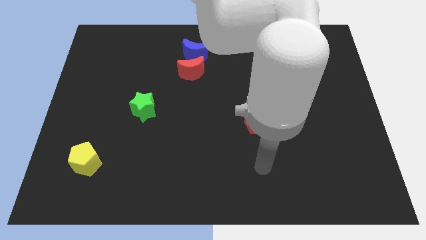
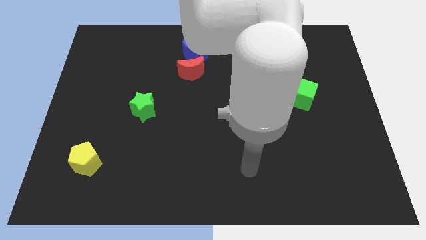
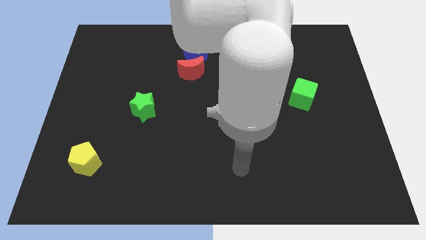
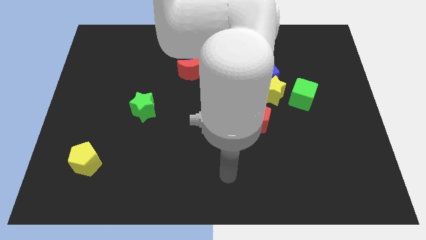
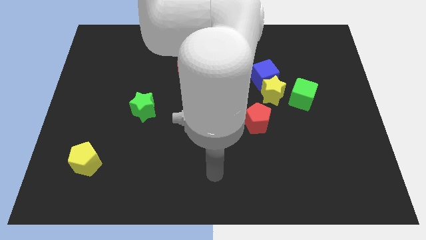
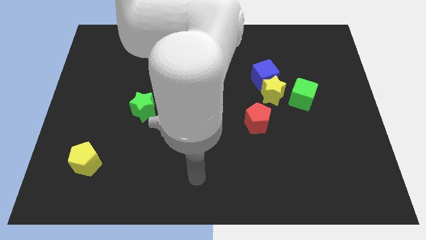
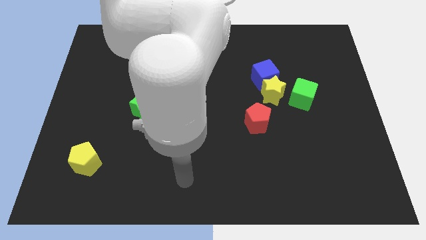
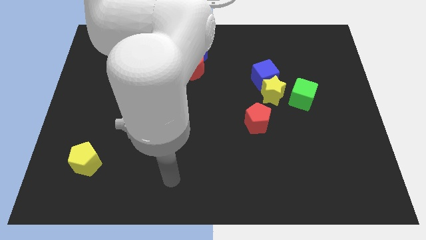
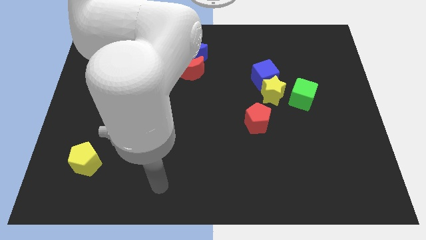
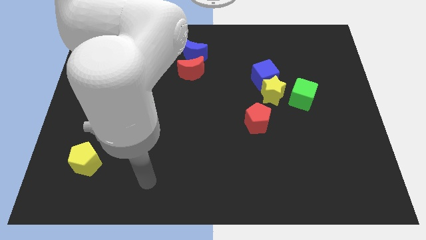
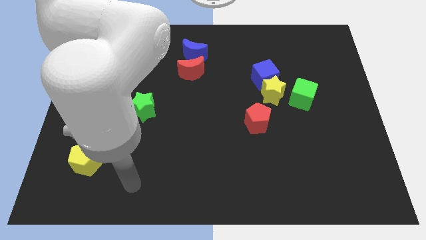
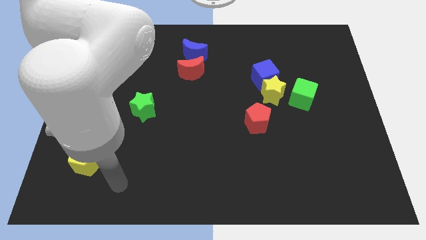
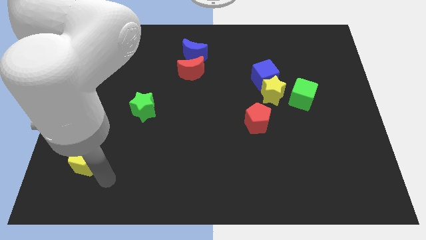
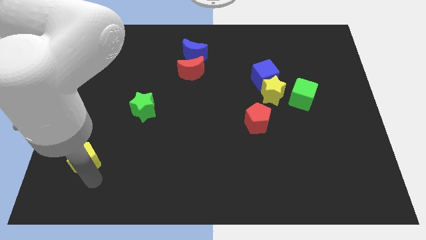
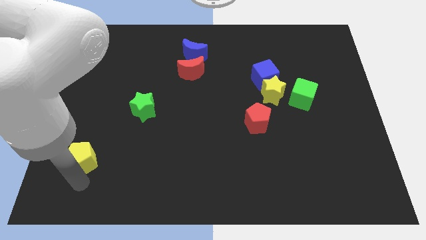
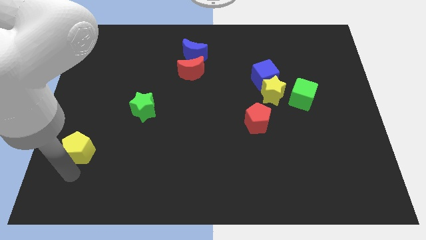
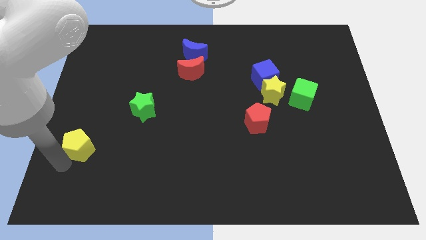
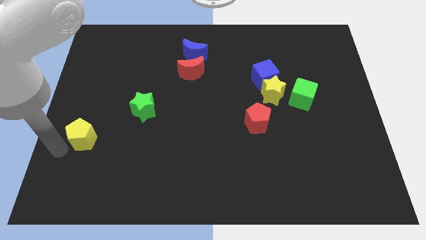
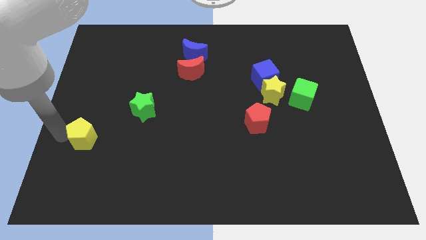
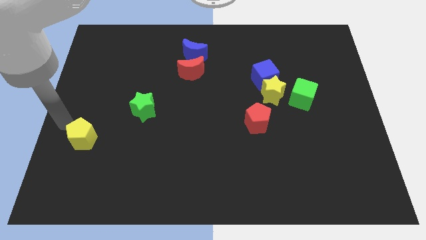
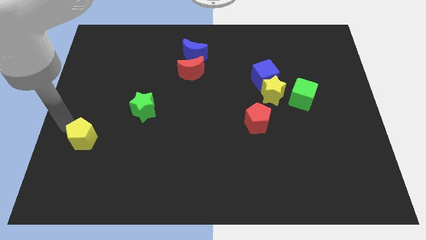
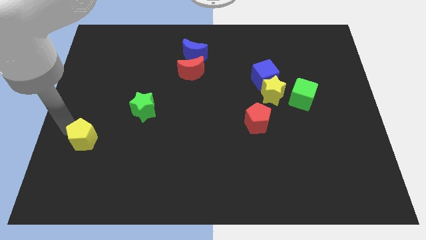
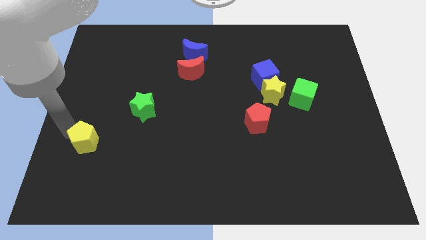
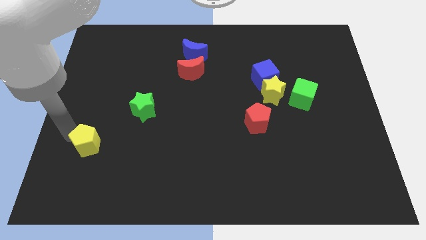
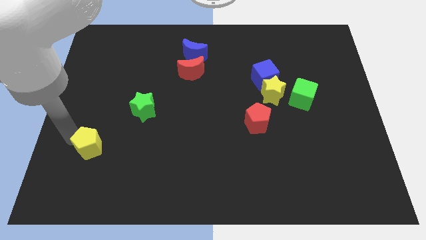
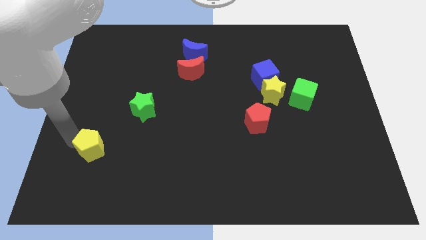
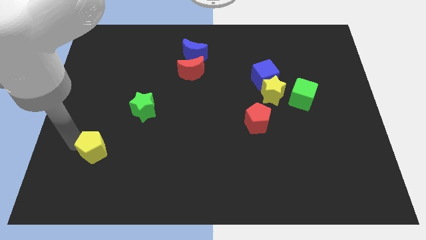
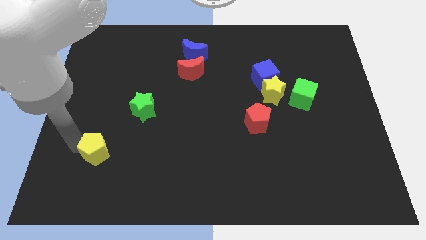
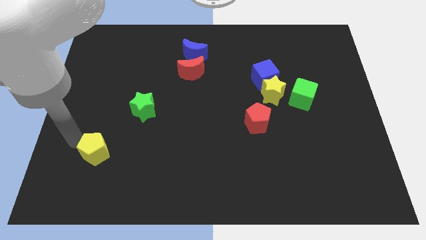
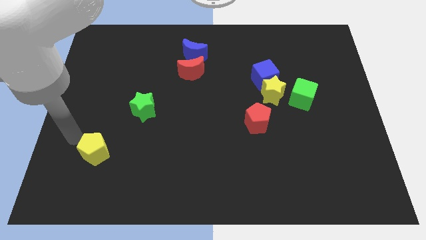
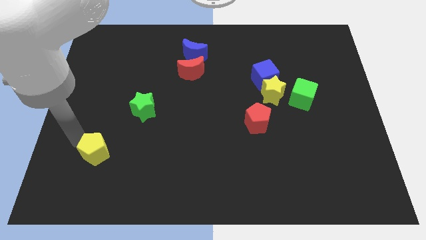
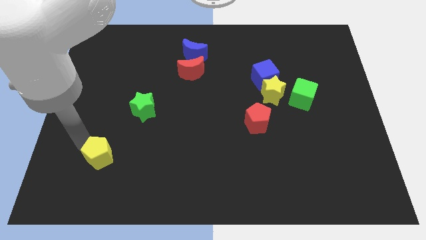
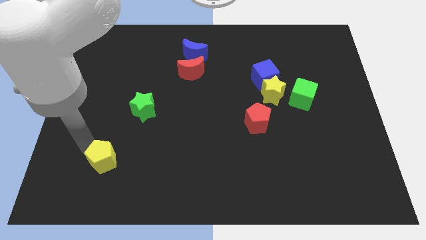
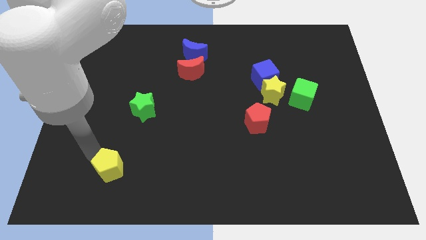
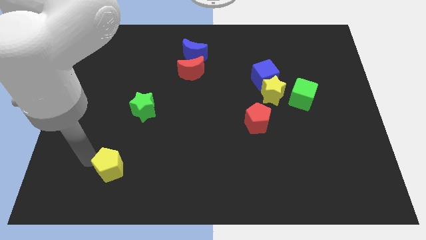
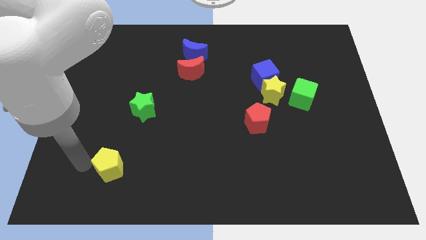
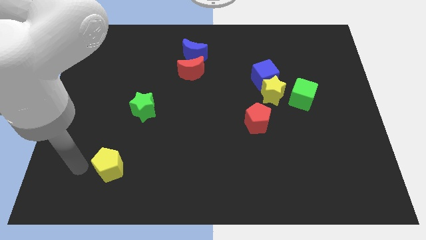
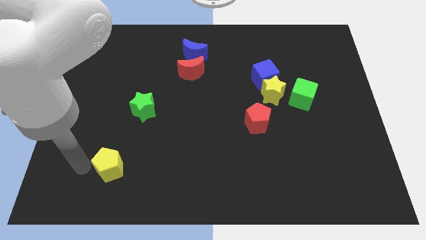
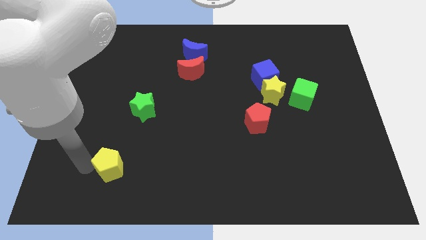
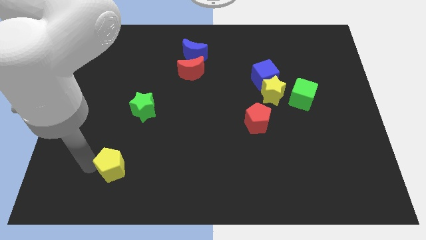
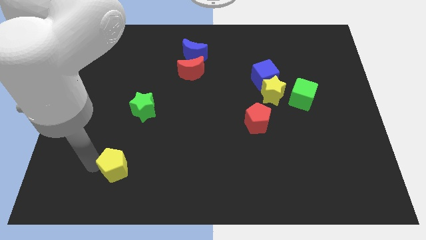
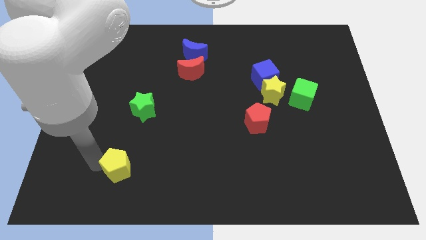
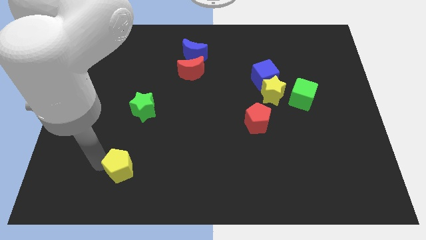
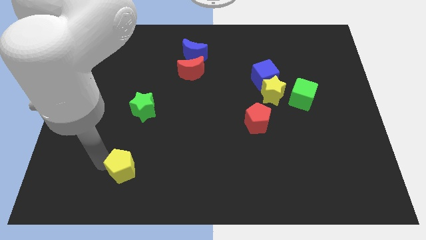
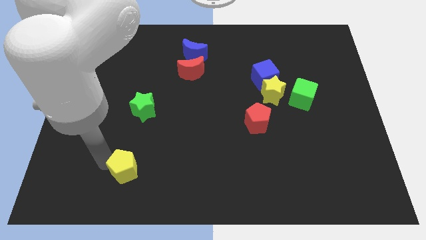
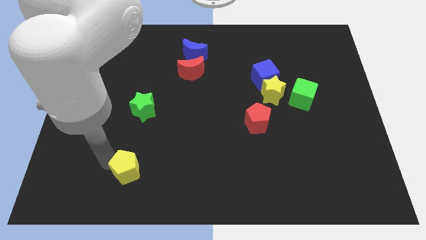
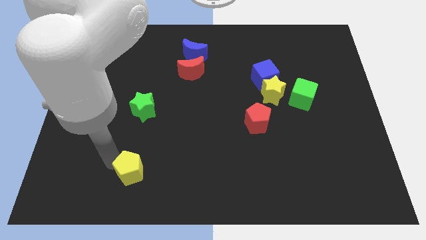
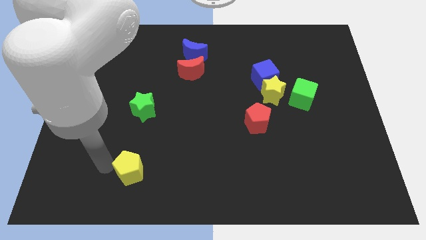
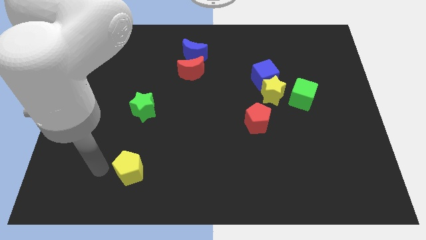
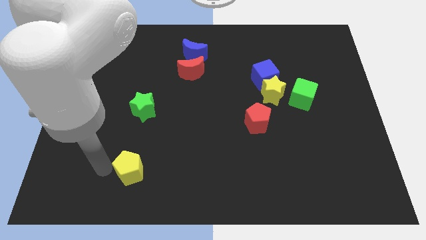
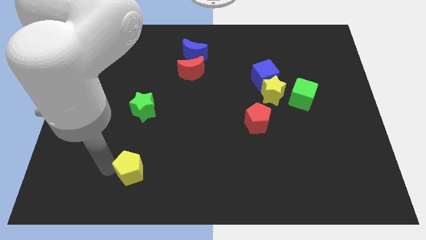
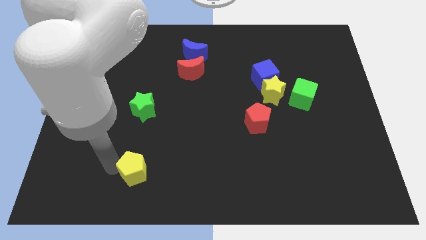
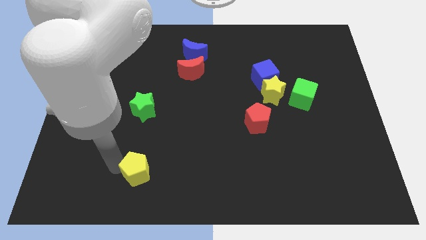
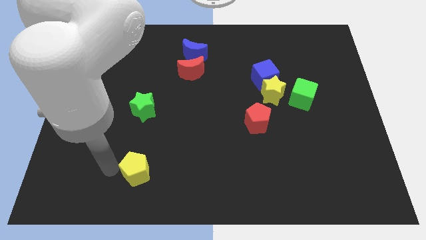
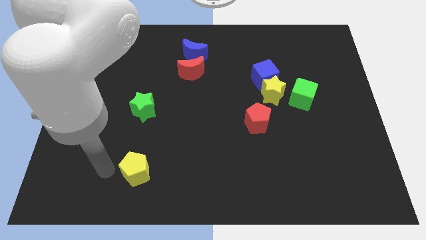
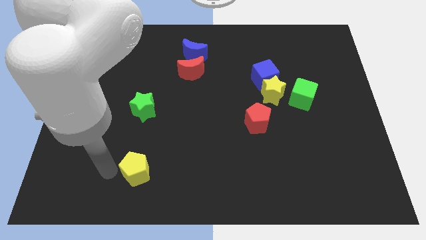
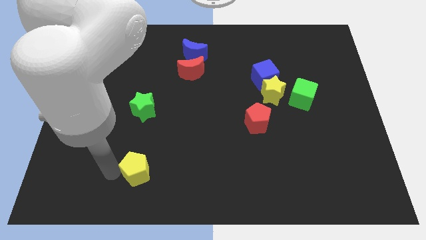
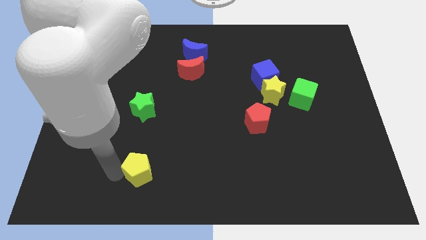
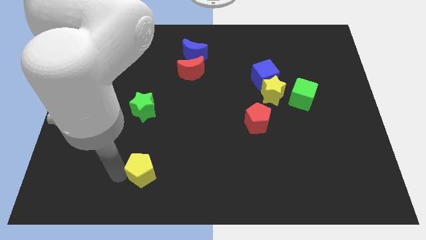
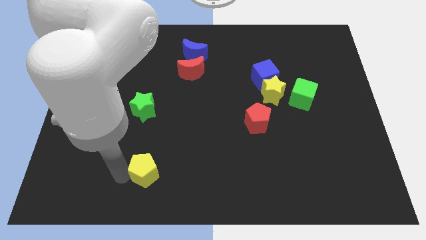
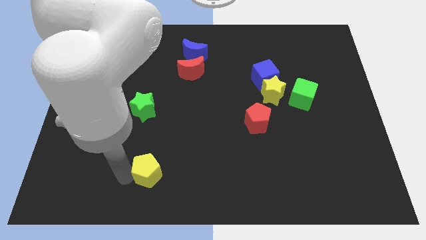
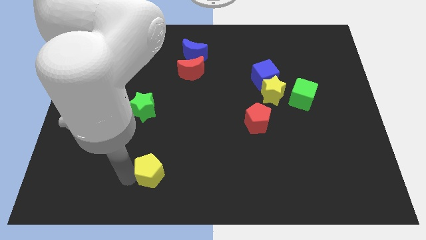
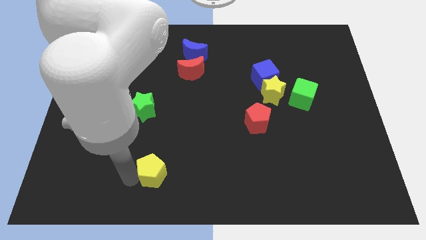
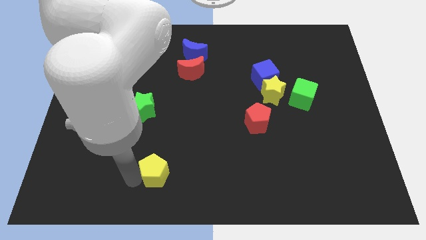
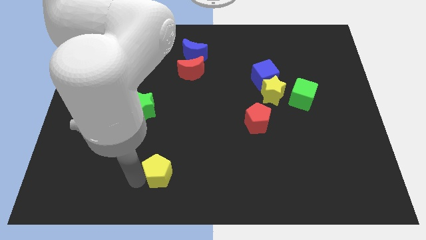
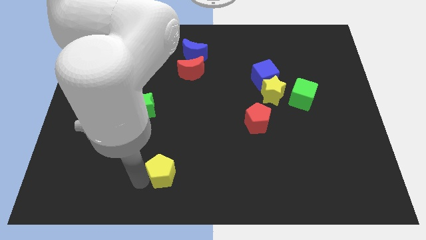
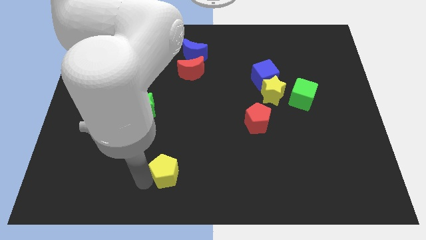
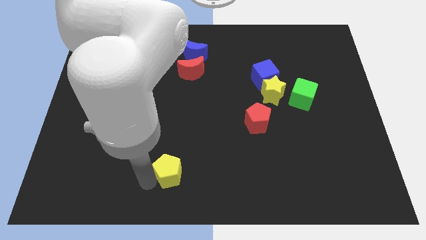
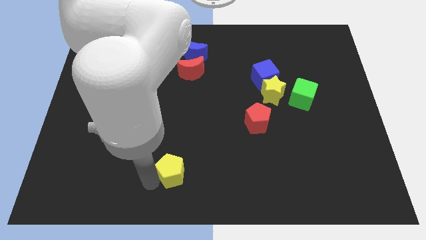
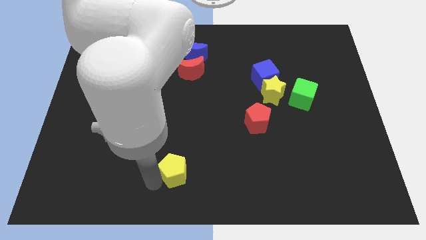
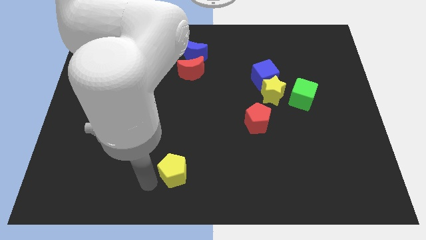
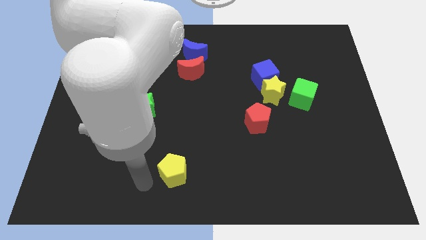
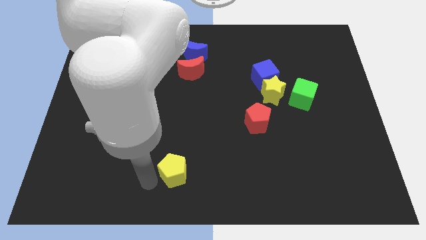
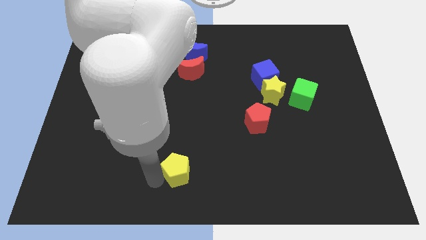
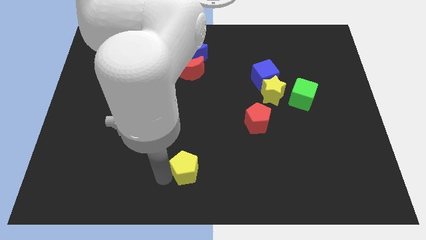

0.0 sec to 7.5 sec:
push the yellow pentagon right

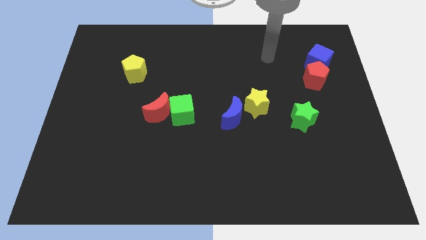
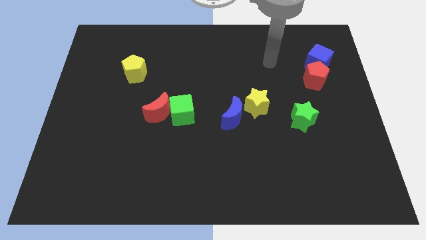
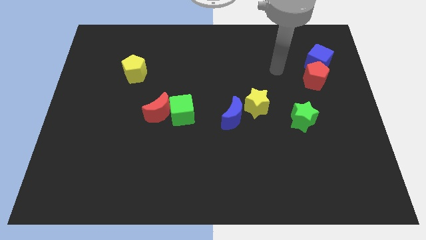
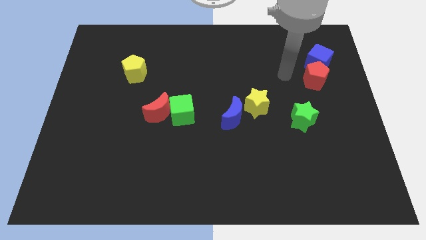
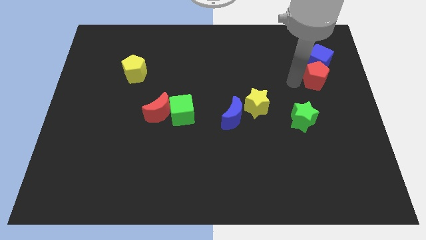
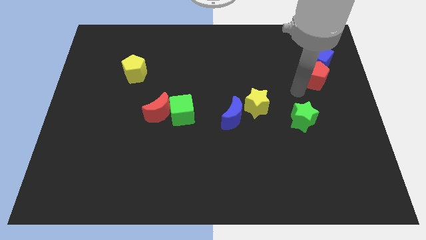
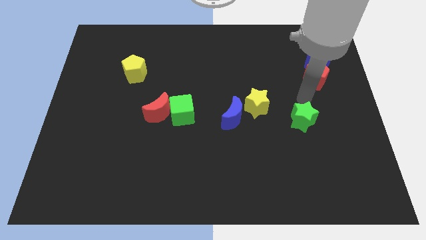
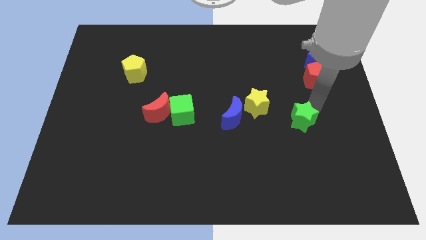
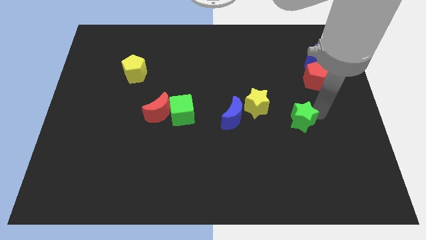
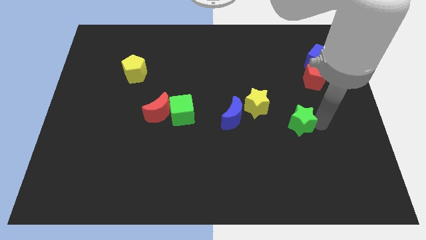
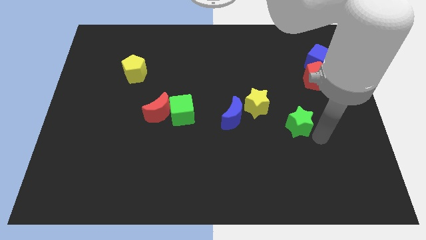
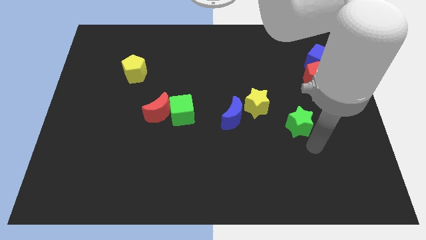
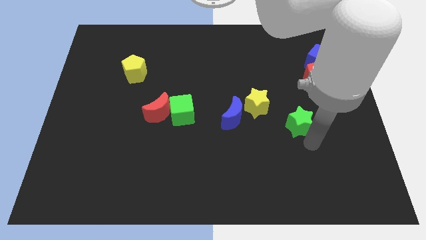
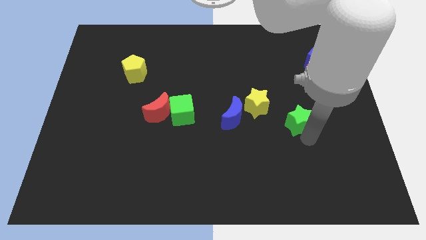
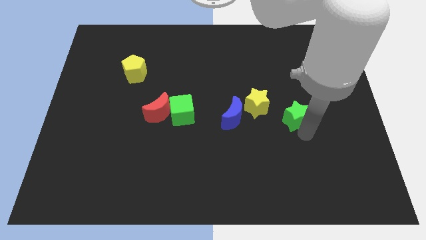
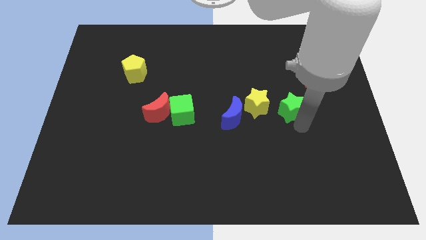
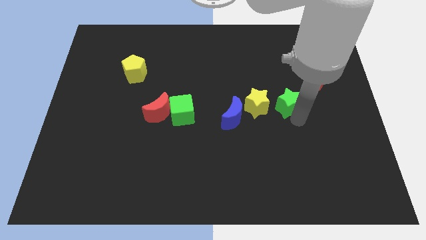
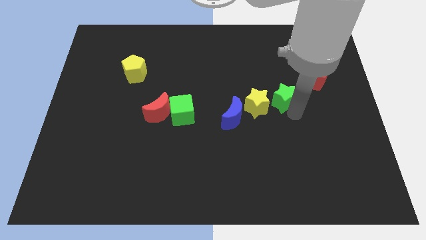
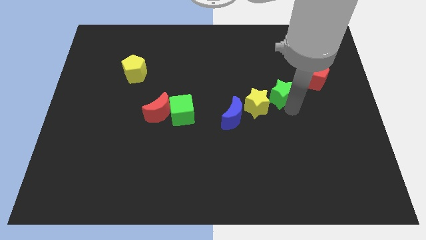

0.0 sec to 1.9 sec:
slightly slide the green star upwards and to the left diagonally
